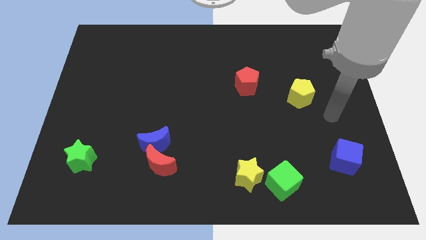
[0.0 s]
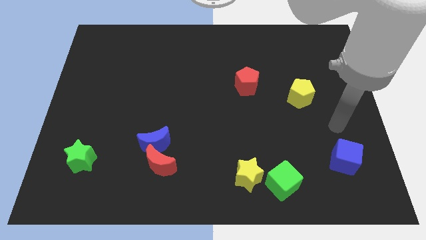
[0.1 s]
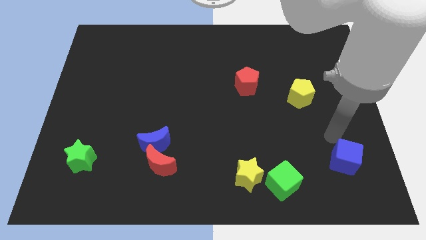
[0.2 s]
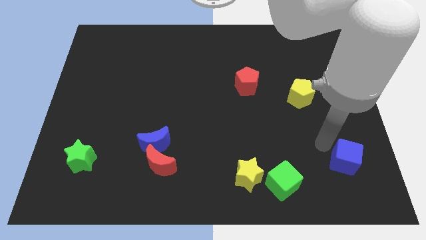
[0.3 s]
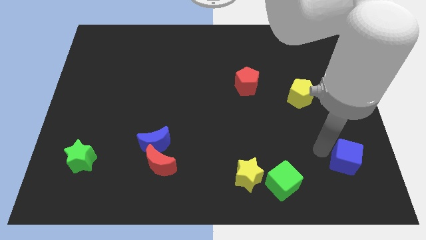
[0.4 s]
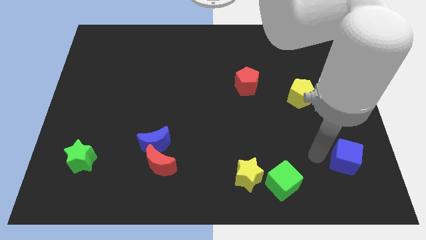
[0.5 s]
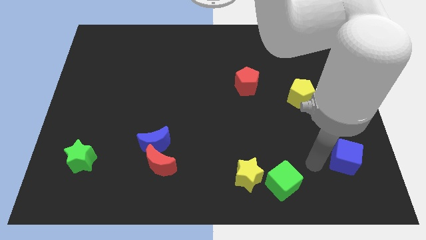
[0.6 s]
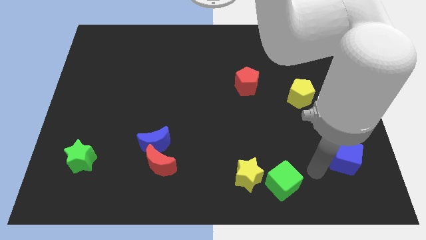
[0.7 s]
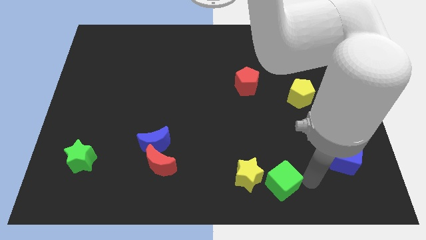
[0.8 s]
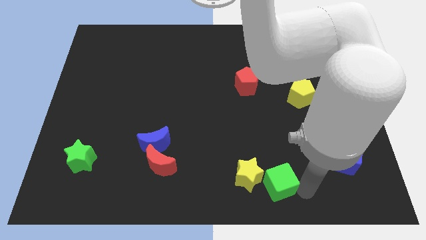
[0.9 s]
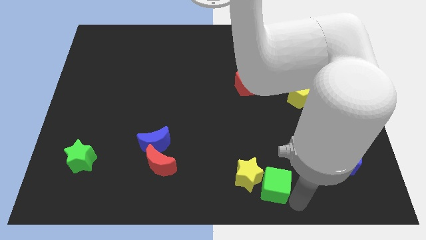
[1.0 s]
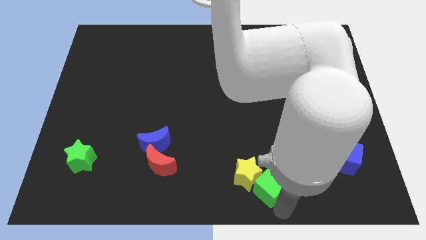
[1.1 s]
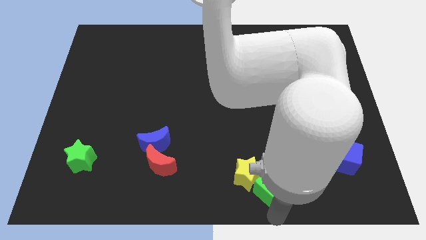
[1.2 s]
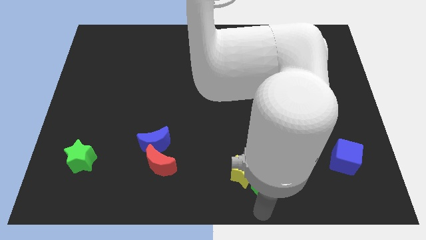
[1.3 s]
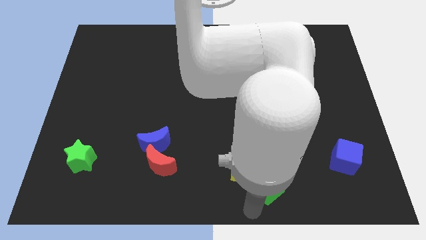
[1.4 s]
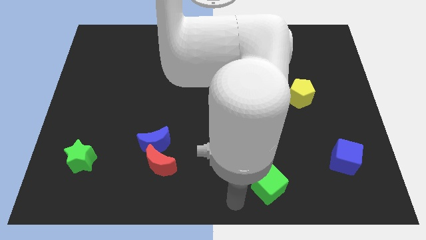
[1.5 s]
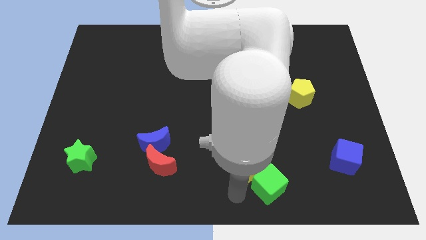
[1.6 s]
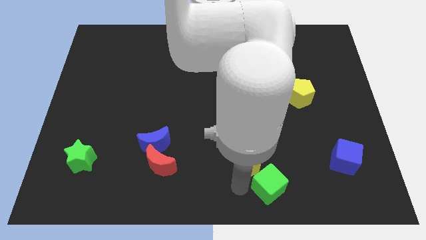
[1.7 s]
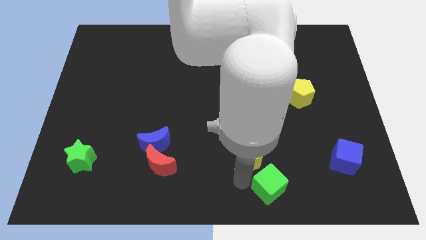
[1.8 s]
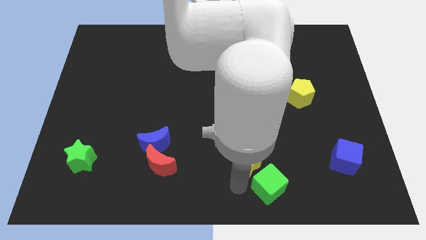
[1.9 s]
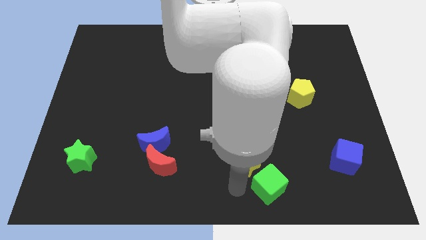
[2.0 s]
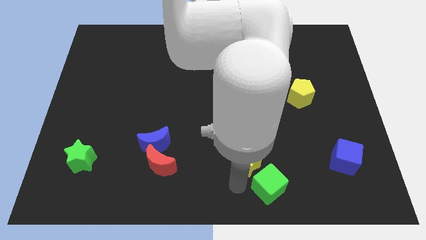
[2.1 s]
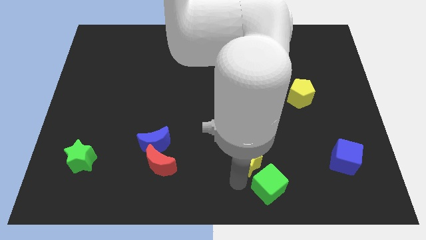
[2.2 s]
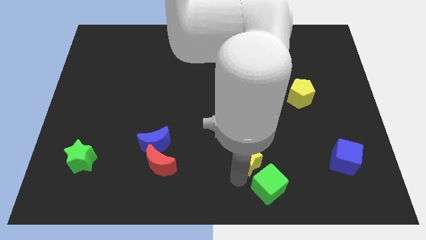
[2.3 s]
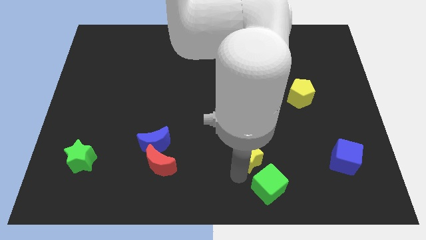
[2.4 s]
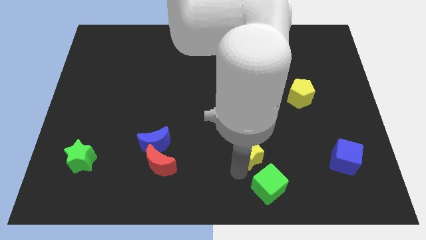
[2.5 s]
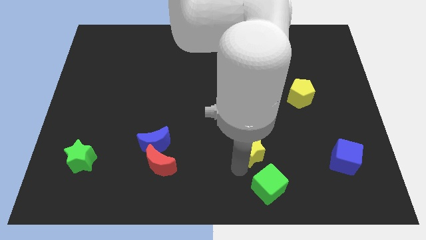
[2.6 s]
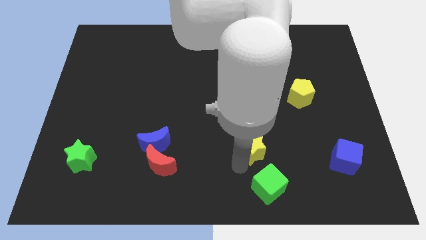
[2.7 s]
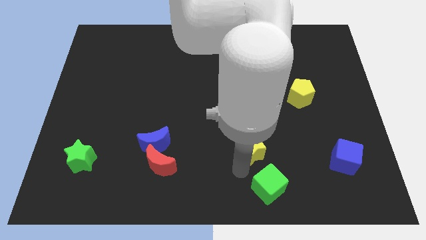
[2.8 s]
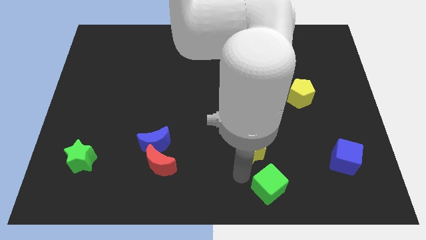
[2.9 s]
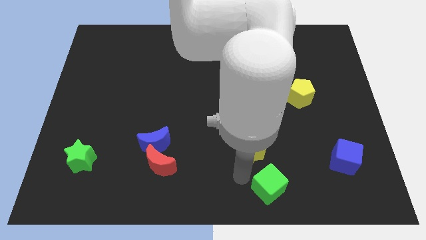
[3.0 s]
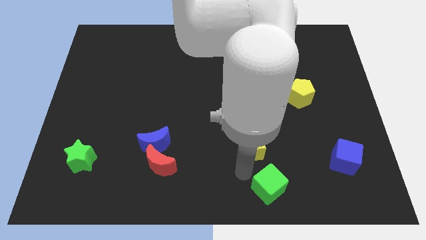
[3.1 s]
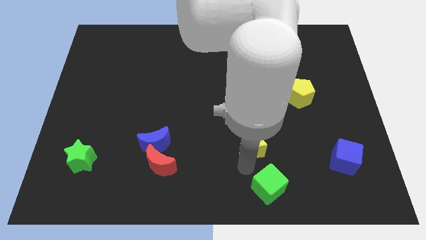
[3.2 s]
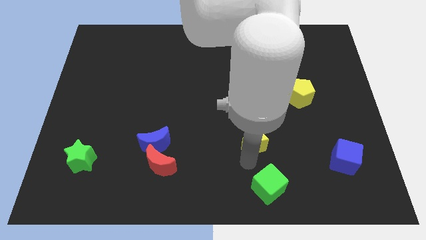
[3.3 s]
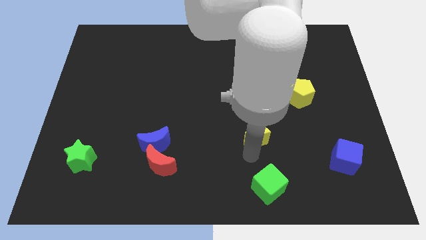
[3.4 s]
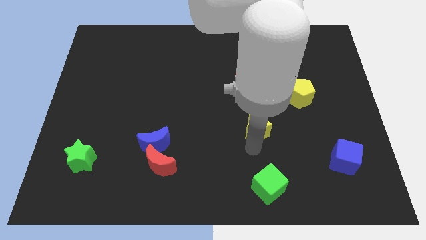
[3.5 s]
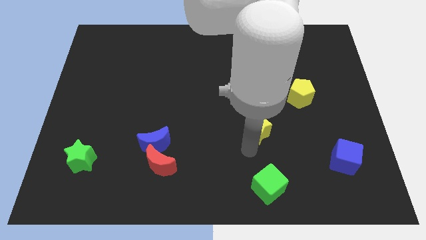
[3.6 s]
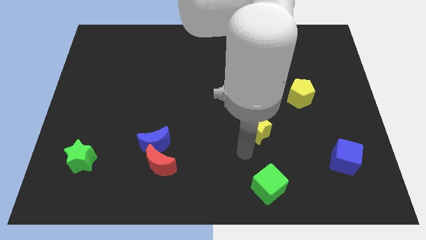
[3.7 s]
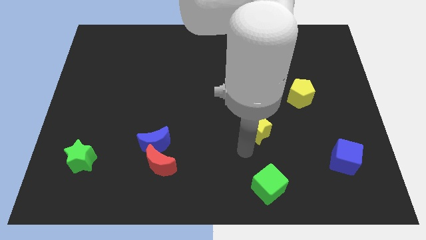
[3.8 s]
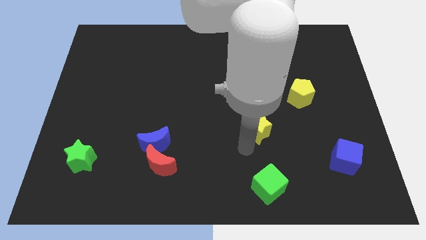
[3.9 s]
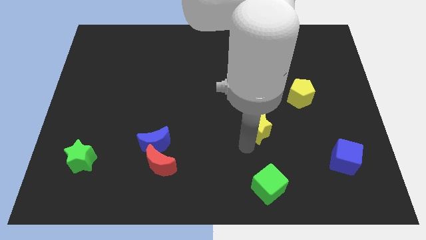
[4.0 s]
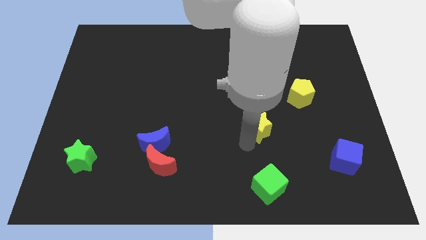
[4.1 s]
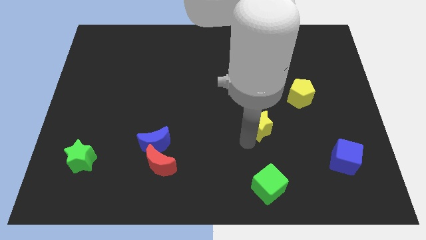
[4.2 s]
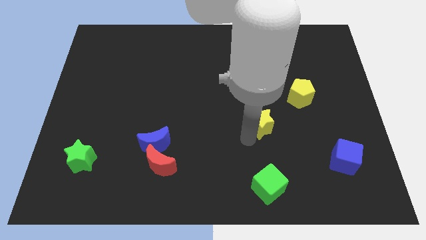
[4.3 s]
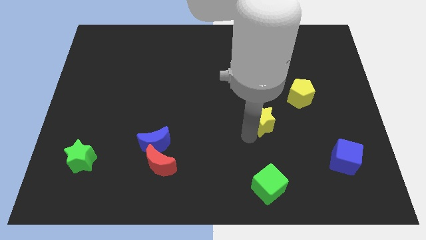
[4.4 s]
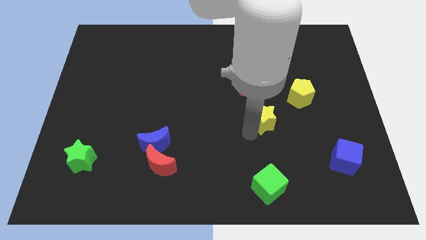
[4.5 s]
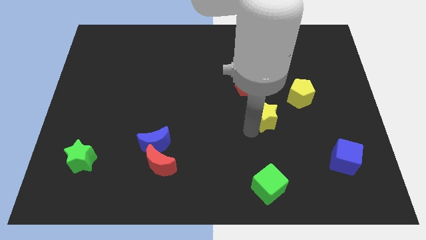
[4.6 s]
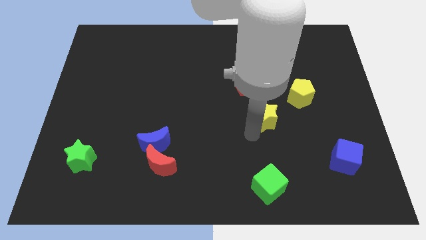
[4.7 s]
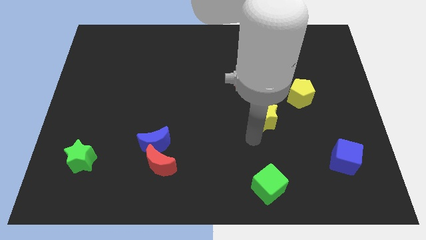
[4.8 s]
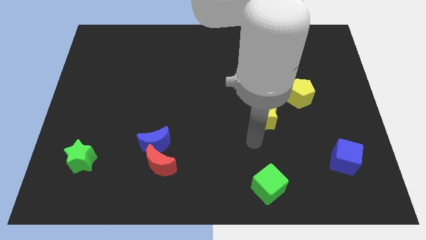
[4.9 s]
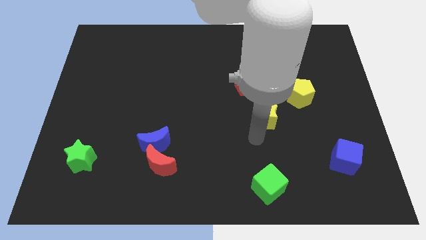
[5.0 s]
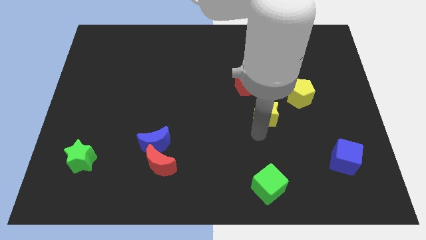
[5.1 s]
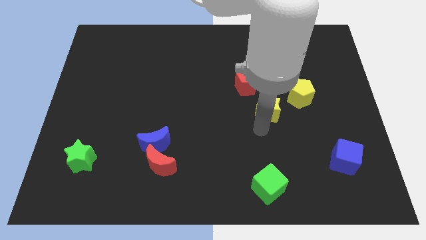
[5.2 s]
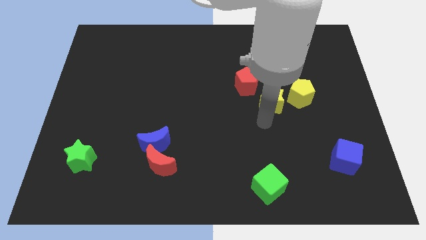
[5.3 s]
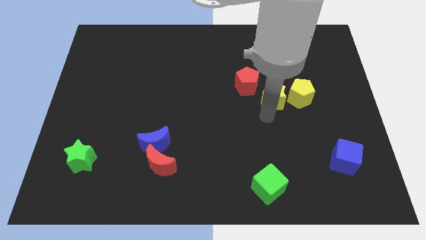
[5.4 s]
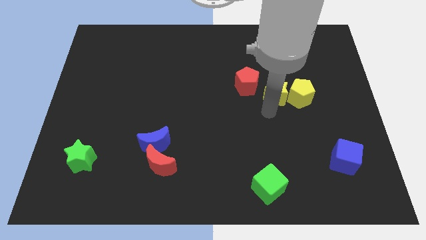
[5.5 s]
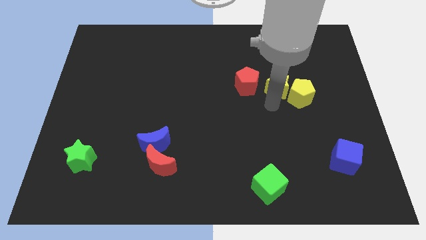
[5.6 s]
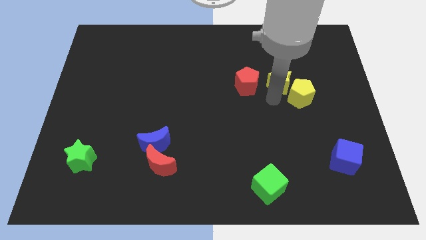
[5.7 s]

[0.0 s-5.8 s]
slide the yellow star above the yellow pentagon

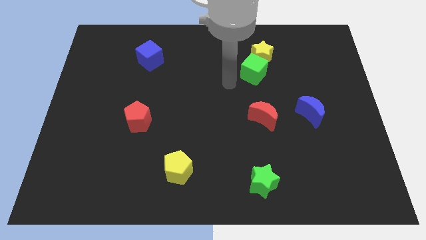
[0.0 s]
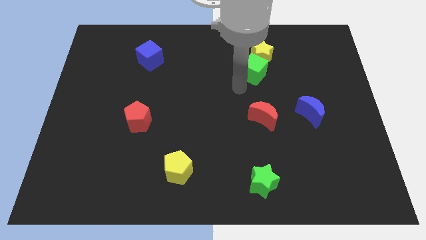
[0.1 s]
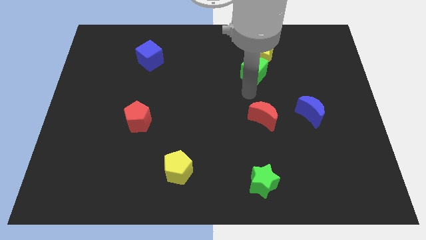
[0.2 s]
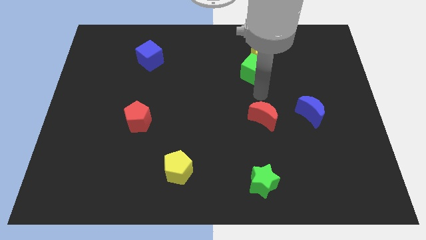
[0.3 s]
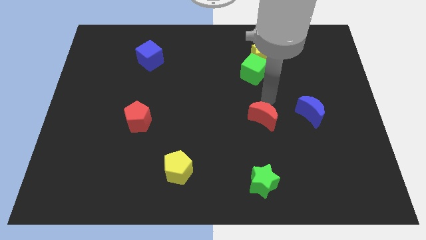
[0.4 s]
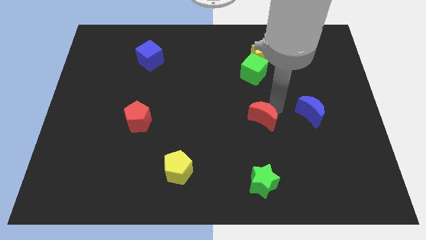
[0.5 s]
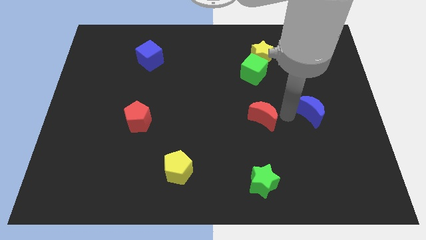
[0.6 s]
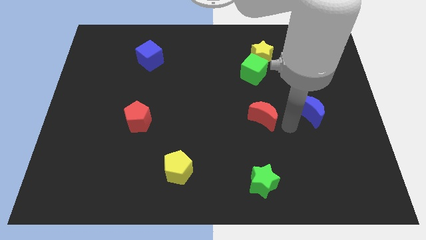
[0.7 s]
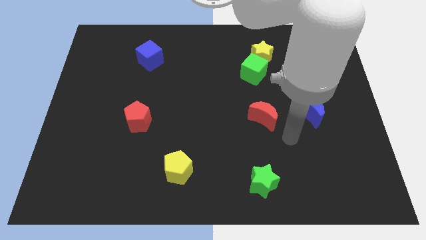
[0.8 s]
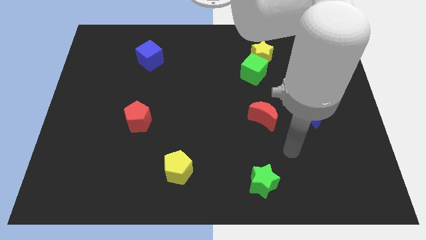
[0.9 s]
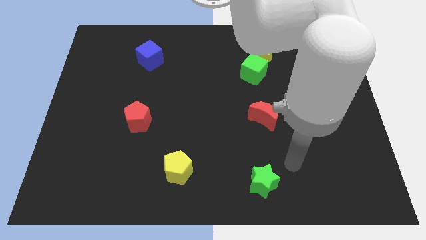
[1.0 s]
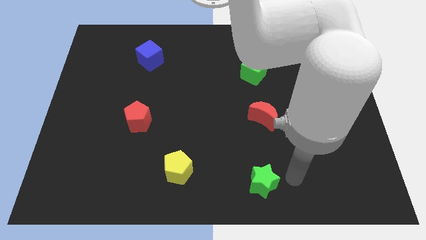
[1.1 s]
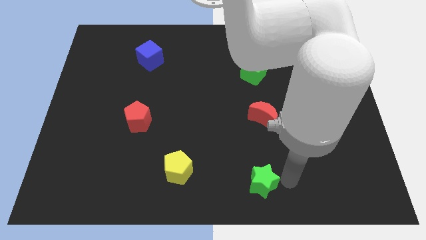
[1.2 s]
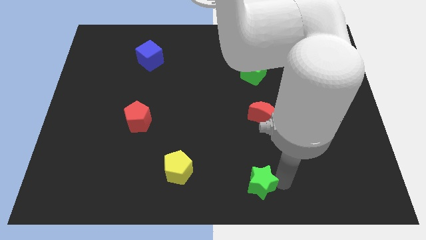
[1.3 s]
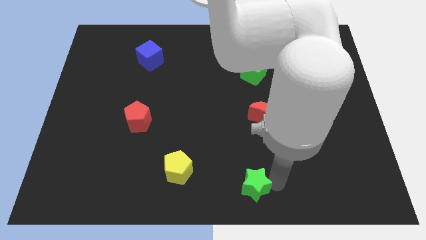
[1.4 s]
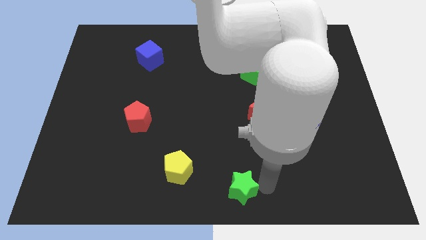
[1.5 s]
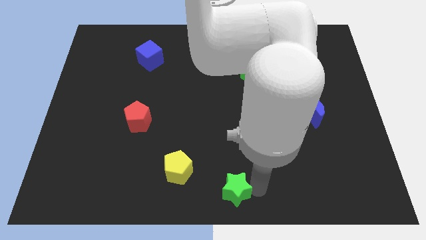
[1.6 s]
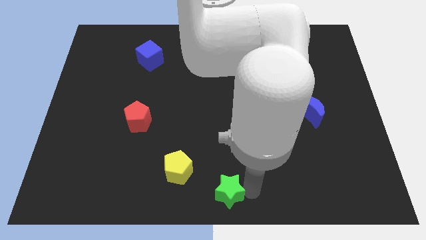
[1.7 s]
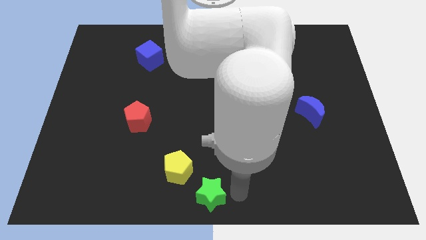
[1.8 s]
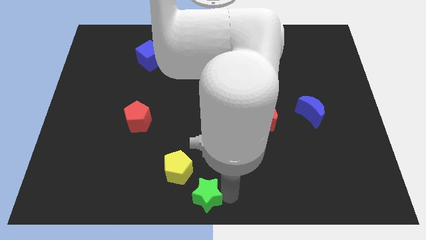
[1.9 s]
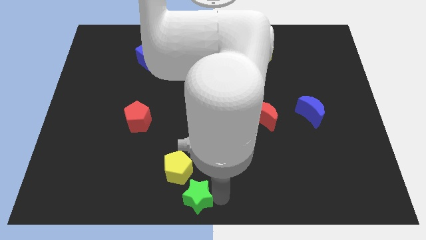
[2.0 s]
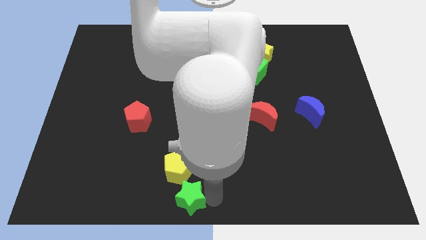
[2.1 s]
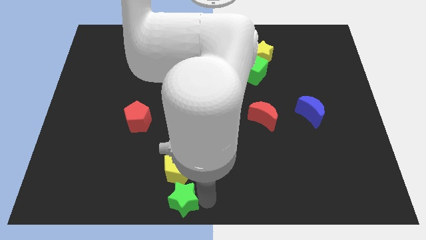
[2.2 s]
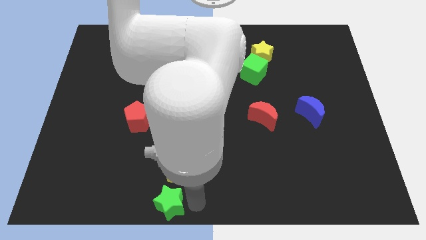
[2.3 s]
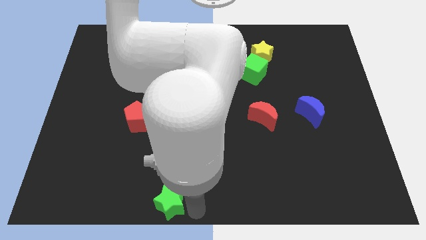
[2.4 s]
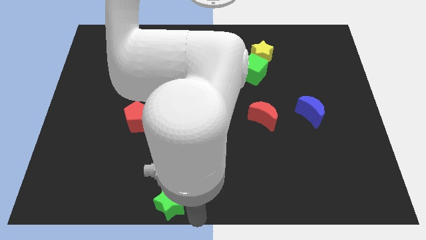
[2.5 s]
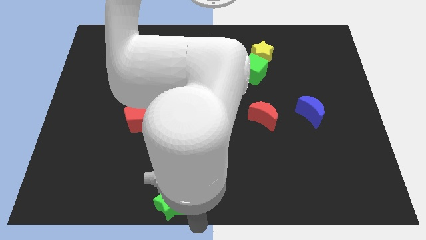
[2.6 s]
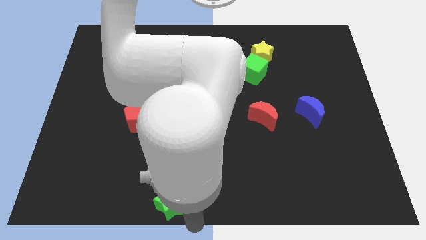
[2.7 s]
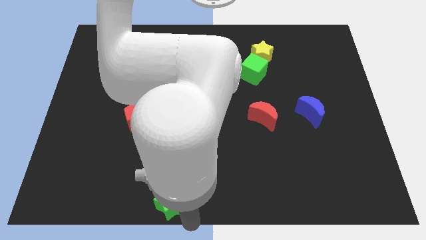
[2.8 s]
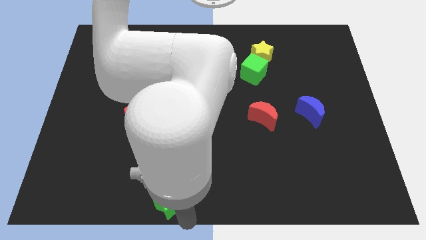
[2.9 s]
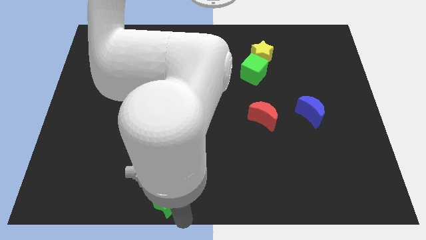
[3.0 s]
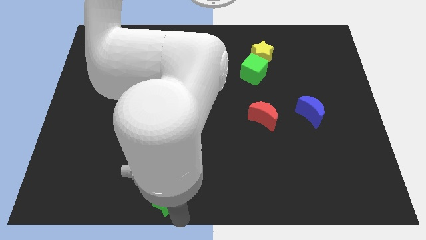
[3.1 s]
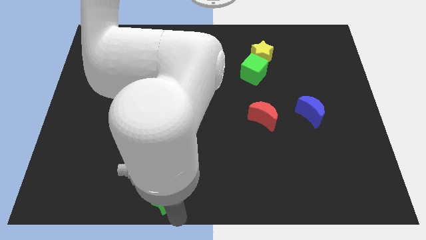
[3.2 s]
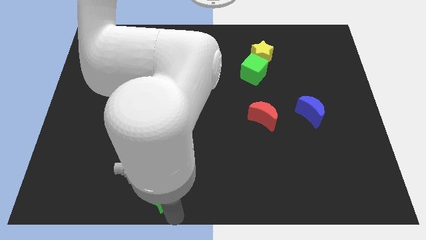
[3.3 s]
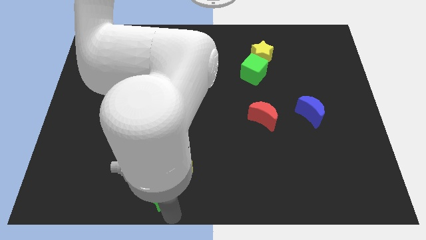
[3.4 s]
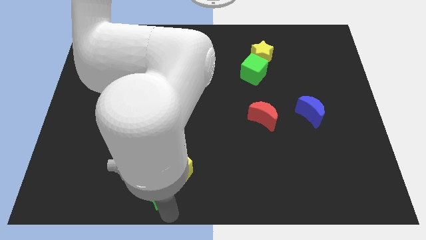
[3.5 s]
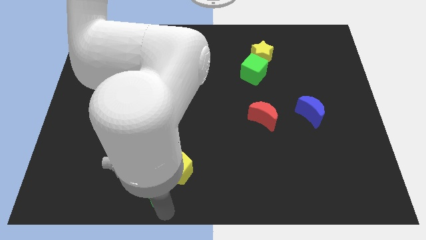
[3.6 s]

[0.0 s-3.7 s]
slide the green star just left of the yellow pentagon
